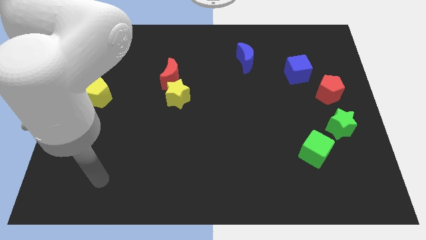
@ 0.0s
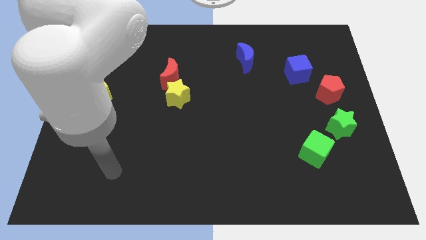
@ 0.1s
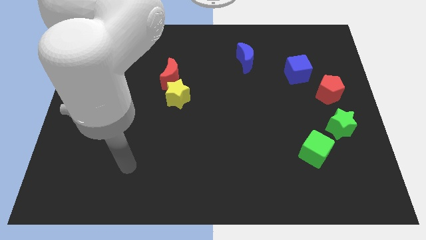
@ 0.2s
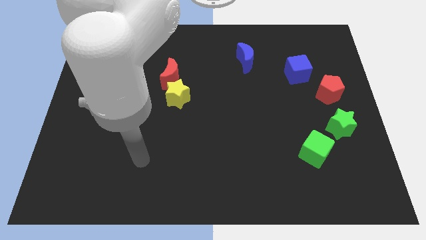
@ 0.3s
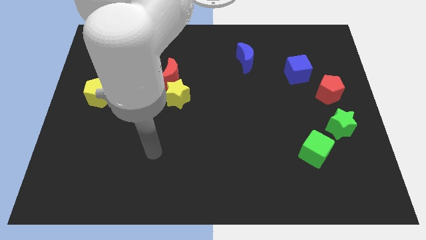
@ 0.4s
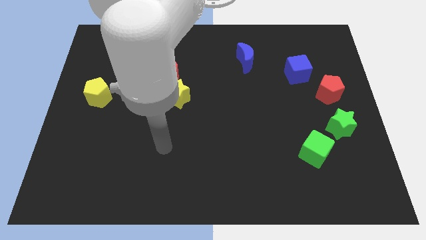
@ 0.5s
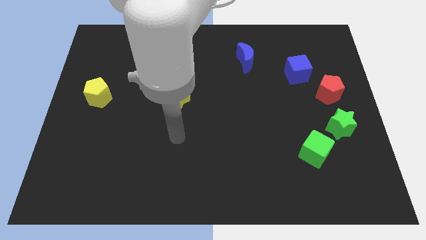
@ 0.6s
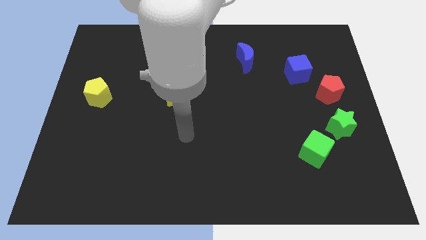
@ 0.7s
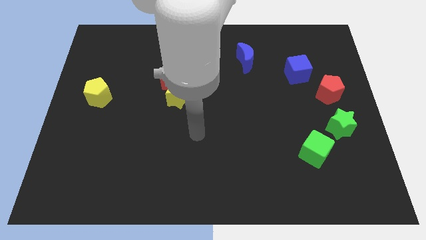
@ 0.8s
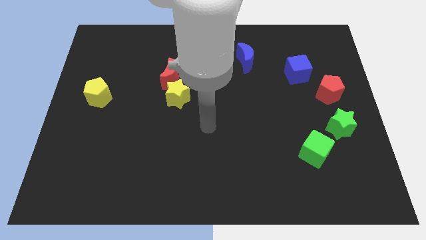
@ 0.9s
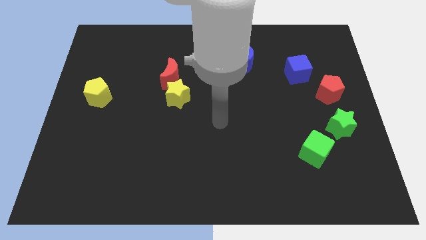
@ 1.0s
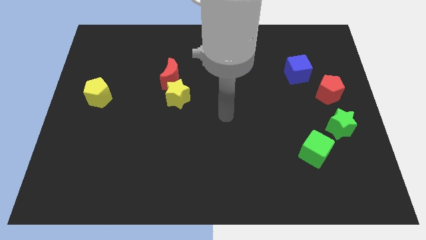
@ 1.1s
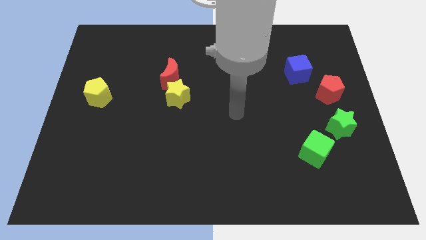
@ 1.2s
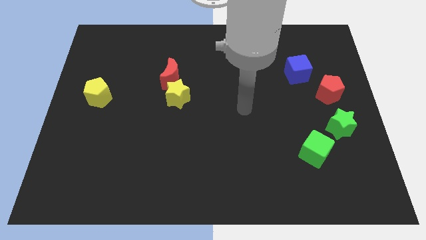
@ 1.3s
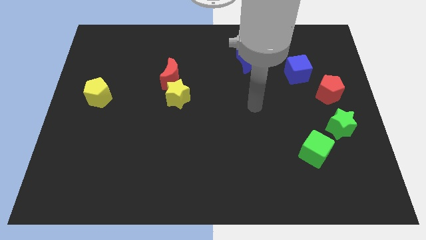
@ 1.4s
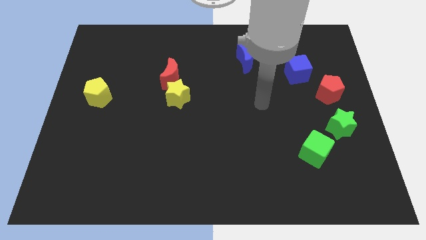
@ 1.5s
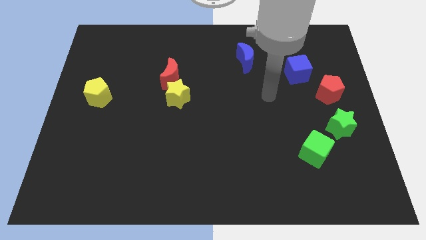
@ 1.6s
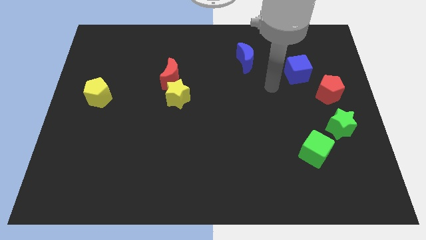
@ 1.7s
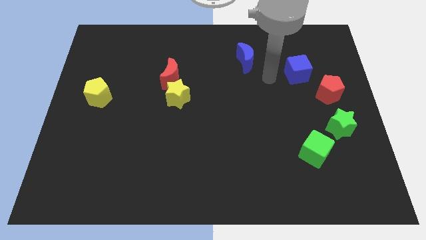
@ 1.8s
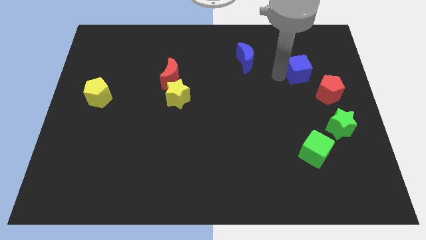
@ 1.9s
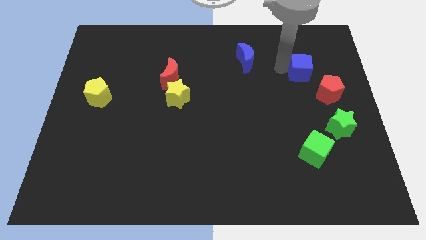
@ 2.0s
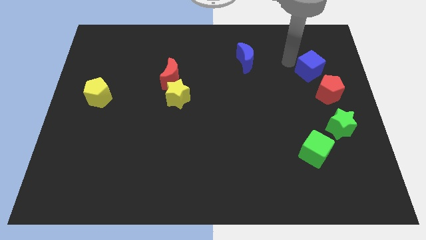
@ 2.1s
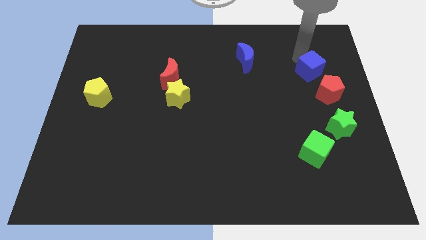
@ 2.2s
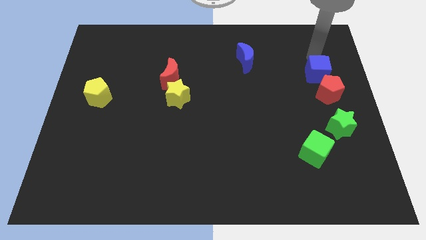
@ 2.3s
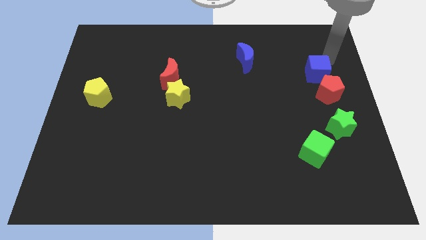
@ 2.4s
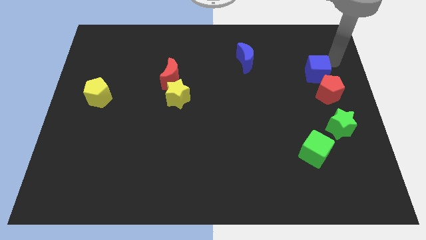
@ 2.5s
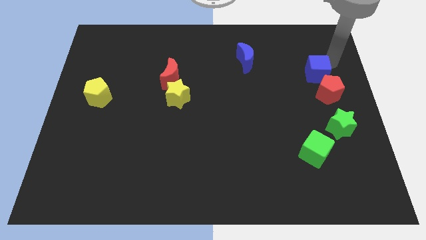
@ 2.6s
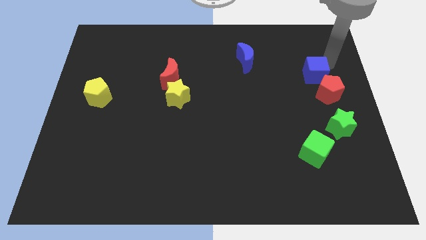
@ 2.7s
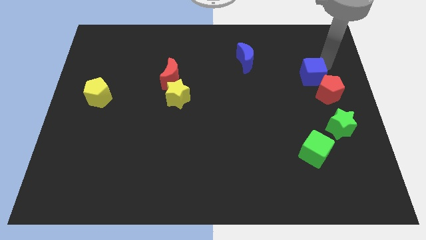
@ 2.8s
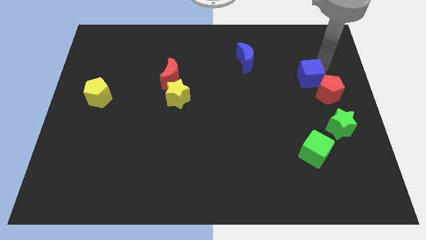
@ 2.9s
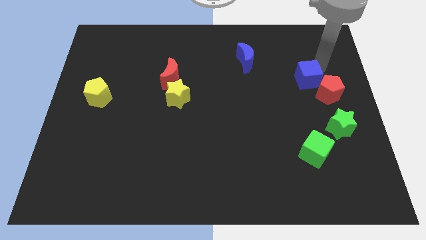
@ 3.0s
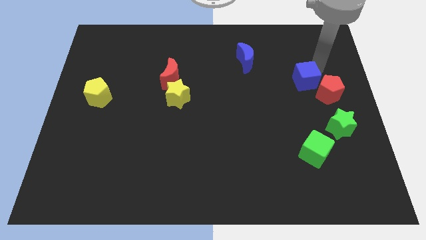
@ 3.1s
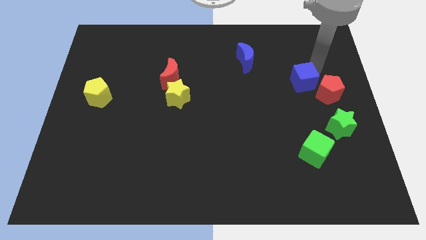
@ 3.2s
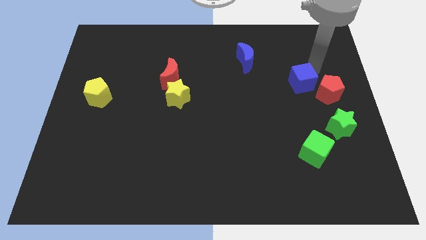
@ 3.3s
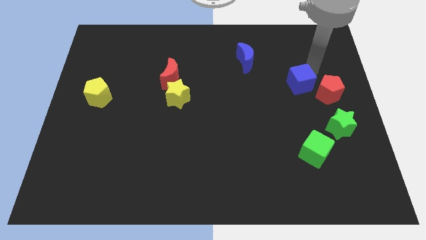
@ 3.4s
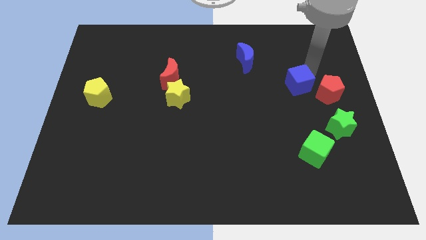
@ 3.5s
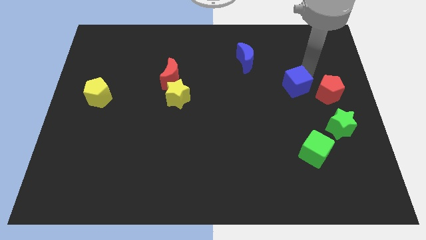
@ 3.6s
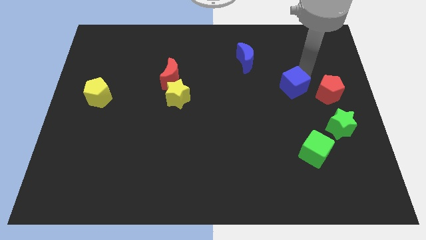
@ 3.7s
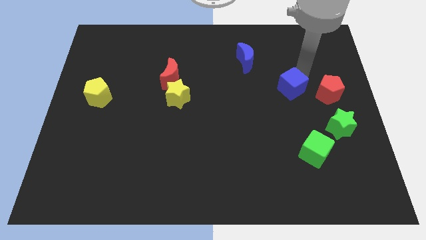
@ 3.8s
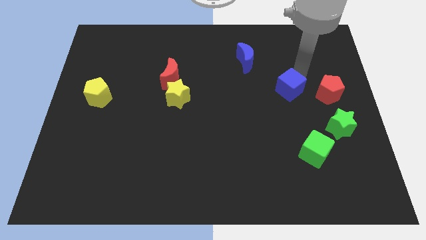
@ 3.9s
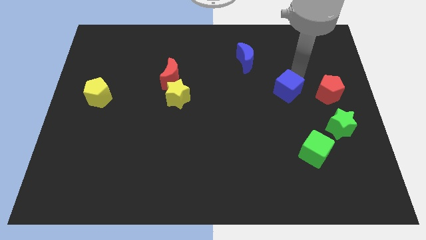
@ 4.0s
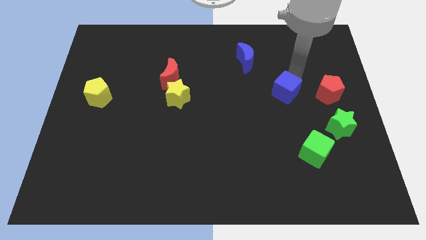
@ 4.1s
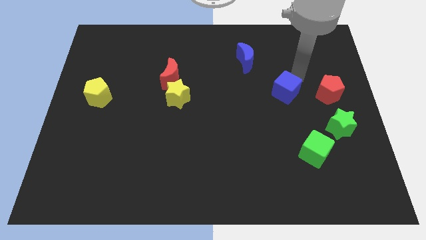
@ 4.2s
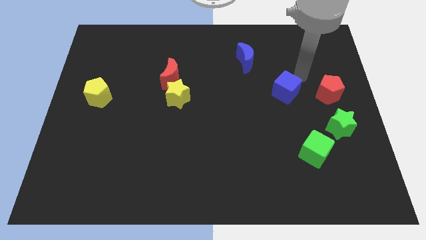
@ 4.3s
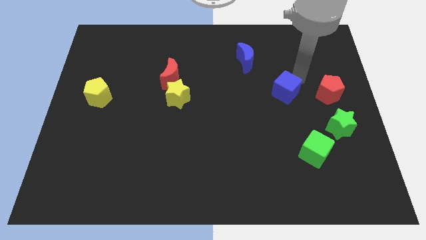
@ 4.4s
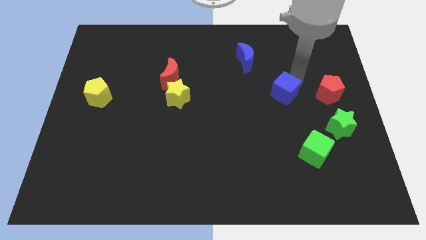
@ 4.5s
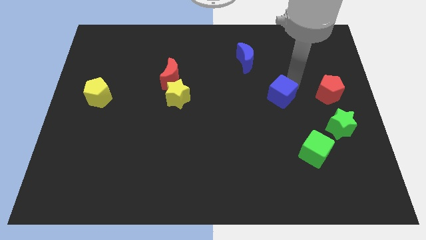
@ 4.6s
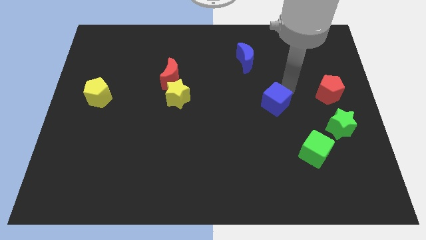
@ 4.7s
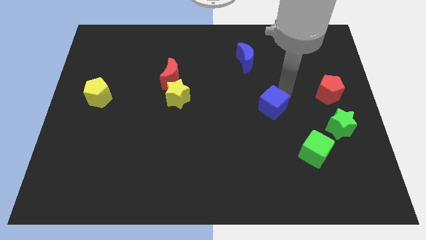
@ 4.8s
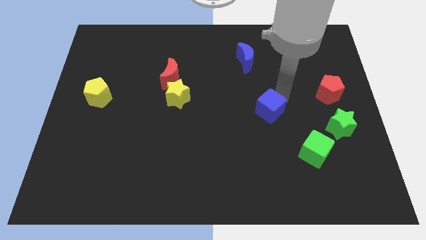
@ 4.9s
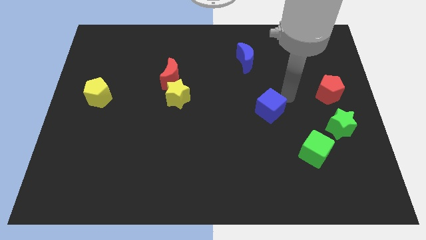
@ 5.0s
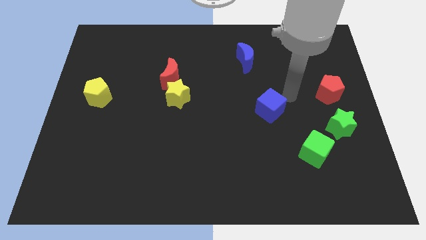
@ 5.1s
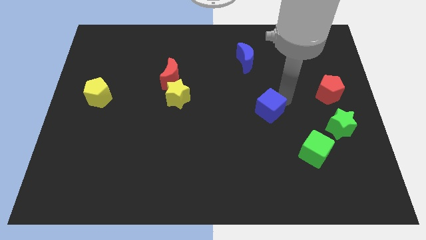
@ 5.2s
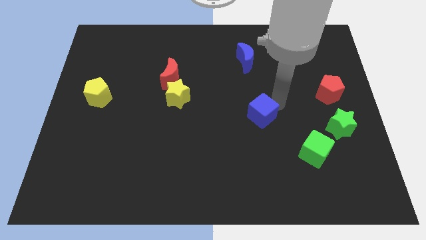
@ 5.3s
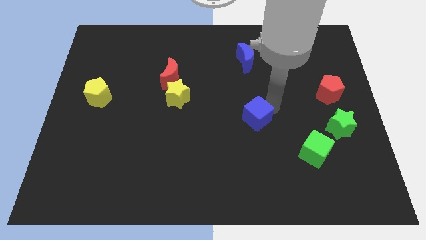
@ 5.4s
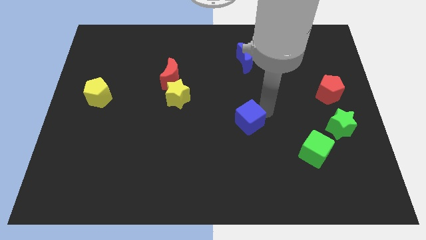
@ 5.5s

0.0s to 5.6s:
slide the blue cube diagonally downwards and to the left

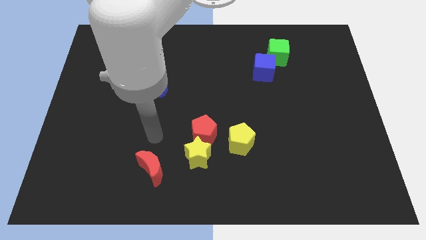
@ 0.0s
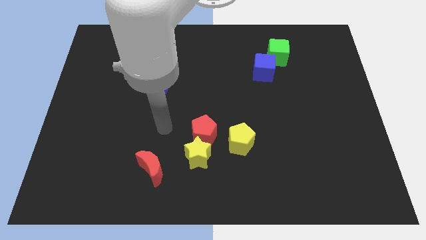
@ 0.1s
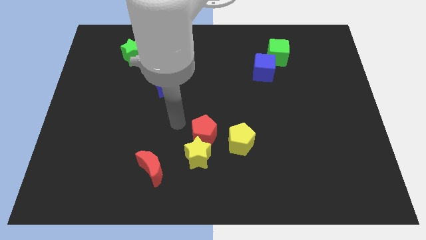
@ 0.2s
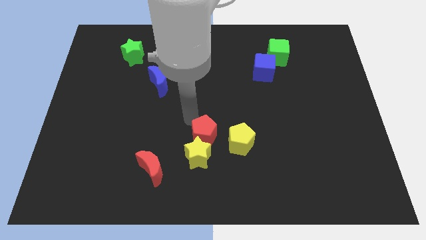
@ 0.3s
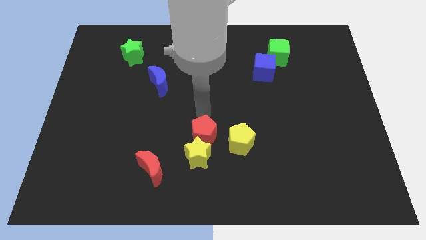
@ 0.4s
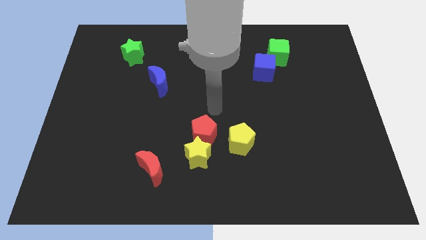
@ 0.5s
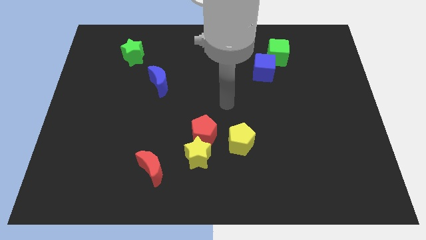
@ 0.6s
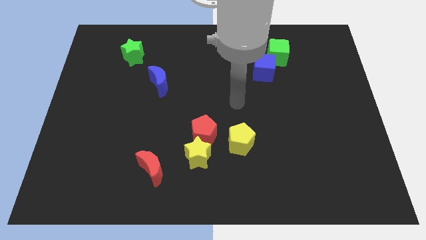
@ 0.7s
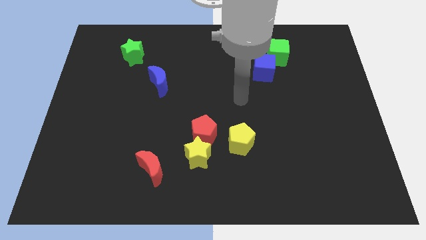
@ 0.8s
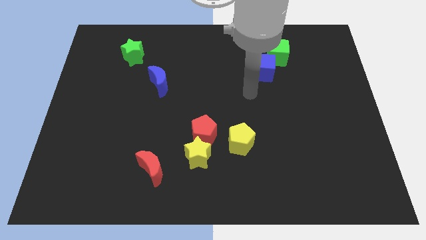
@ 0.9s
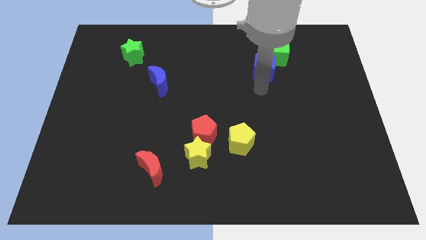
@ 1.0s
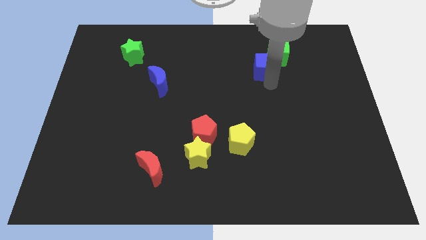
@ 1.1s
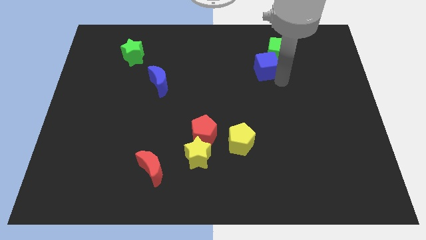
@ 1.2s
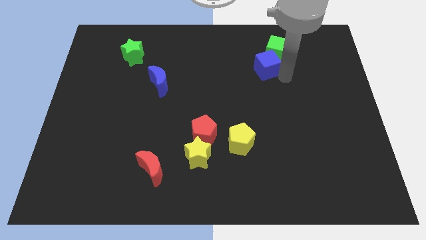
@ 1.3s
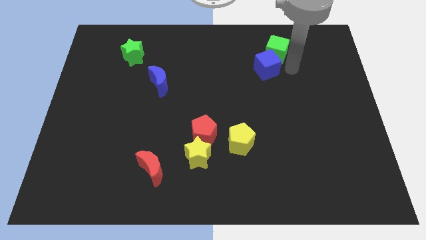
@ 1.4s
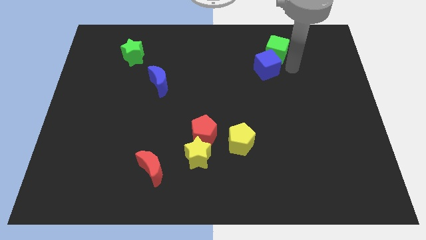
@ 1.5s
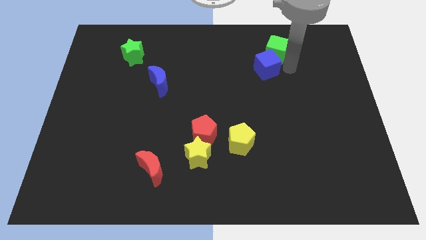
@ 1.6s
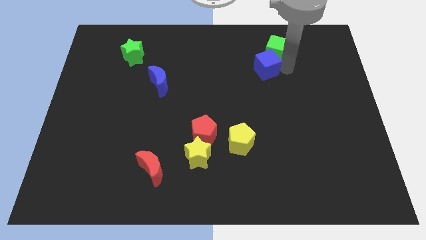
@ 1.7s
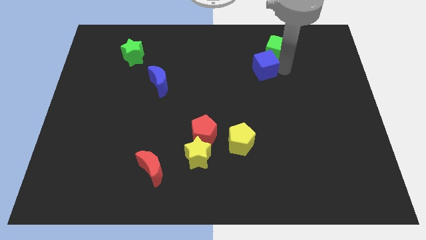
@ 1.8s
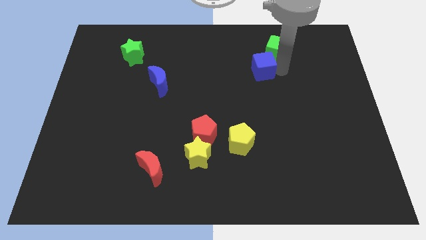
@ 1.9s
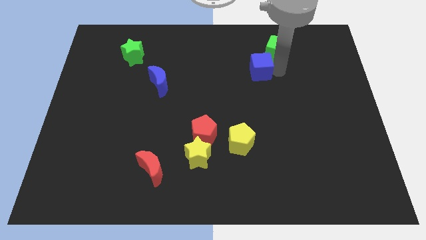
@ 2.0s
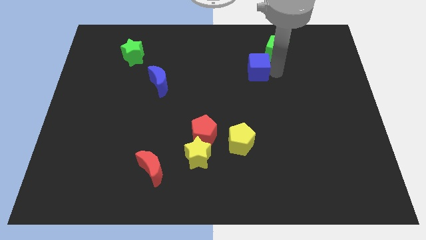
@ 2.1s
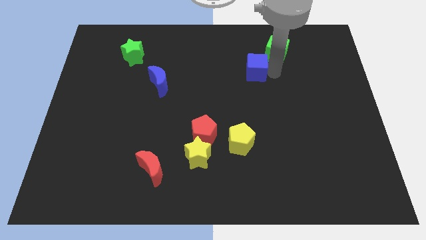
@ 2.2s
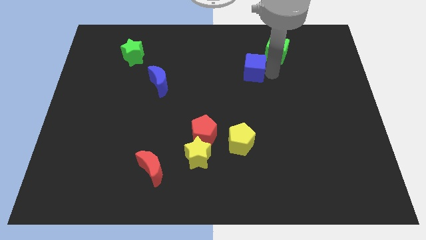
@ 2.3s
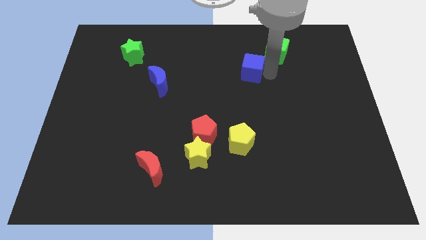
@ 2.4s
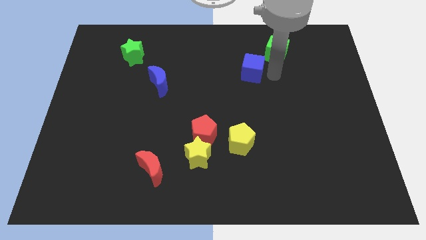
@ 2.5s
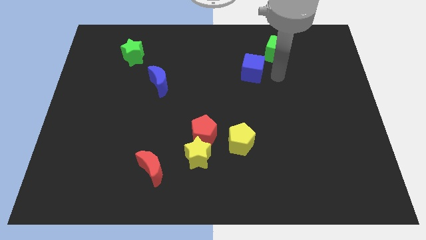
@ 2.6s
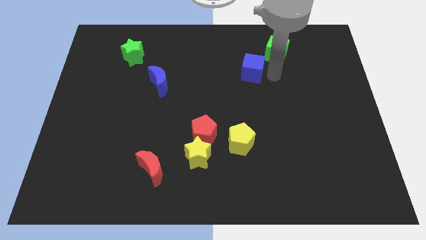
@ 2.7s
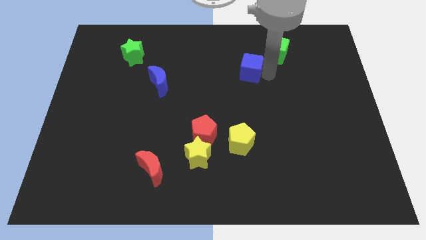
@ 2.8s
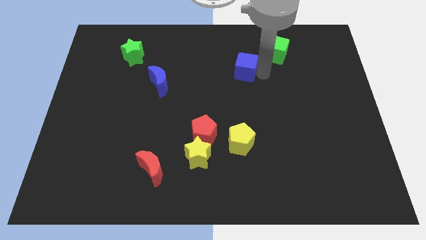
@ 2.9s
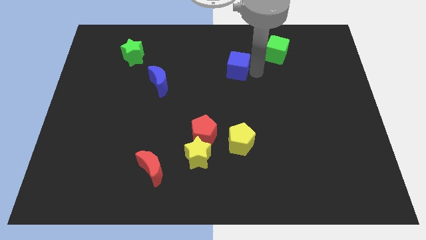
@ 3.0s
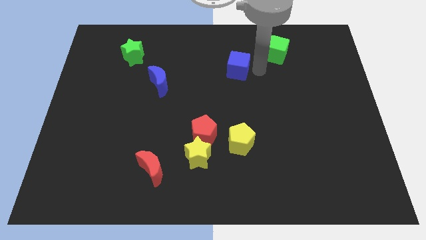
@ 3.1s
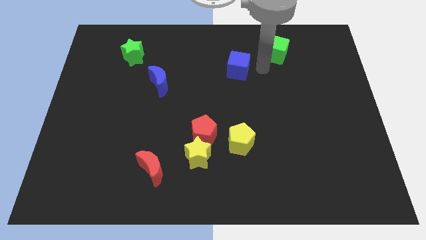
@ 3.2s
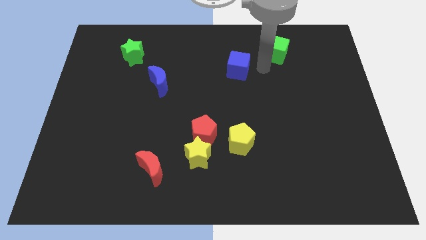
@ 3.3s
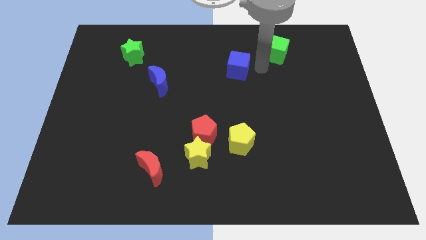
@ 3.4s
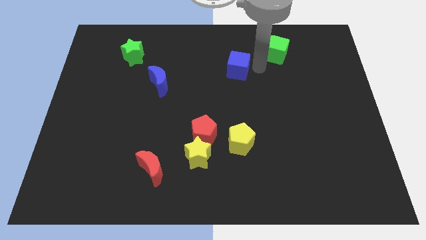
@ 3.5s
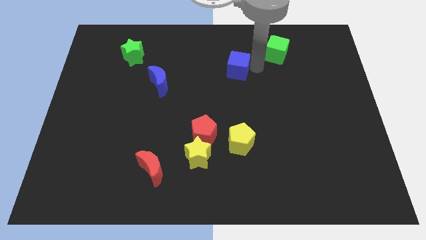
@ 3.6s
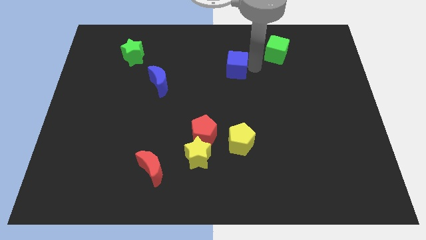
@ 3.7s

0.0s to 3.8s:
slightly slide the blue cube to the left
